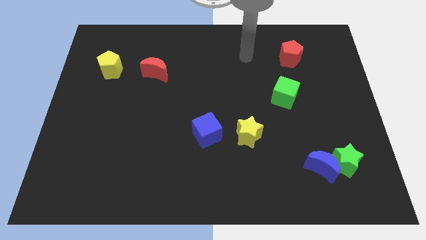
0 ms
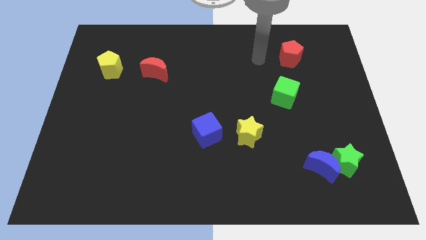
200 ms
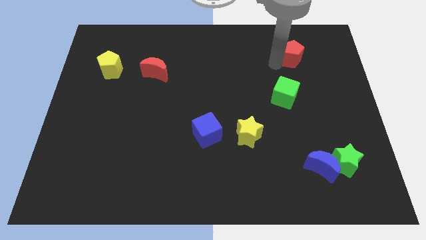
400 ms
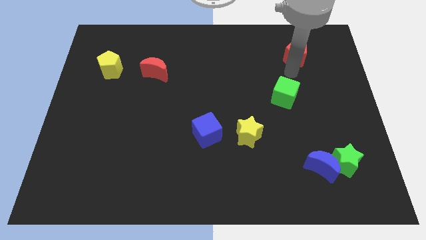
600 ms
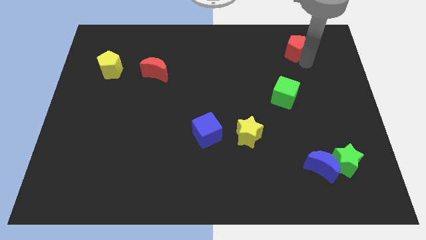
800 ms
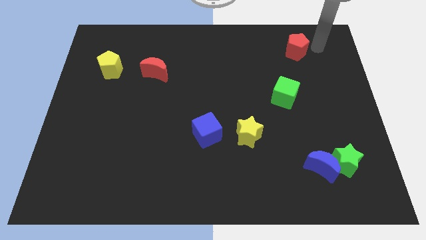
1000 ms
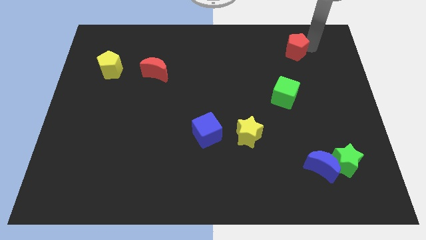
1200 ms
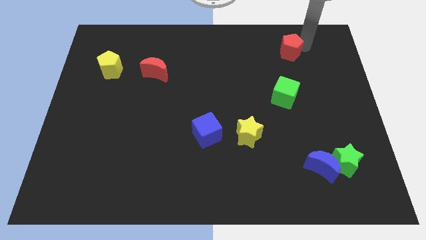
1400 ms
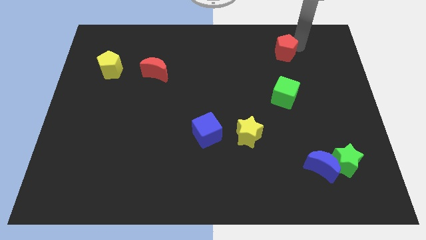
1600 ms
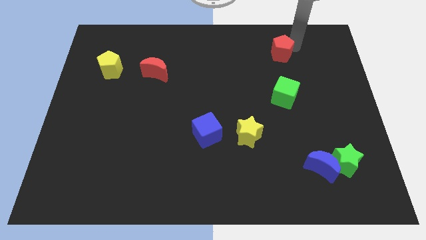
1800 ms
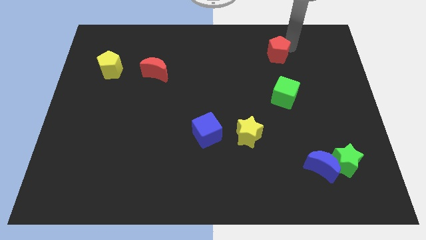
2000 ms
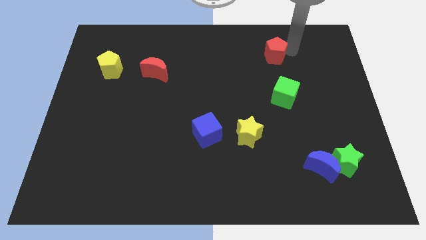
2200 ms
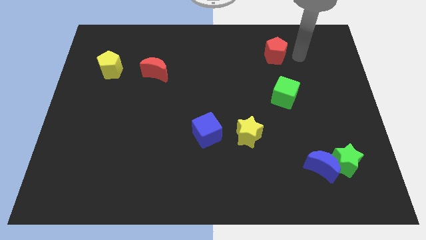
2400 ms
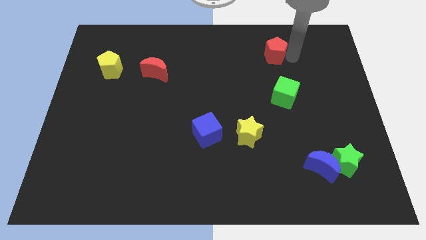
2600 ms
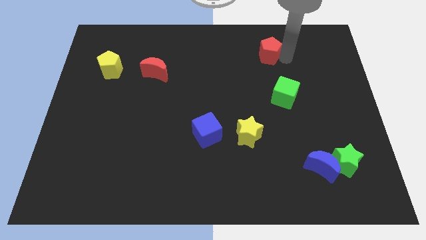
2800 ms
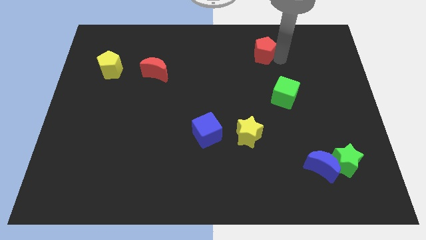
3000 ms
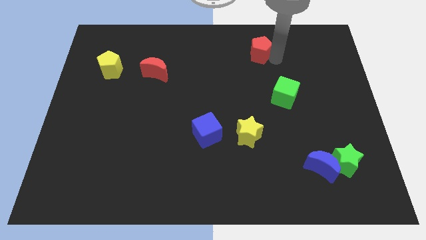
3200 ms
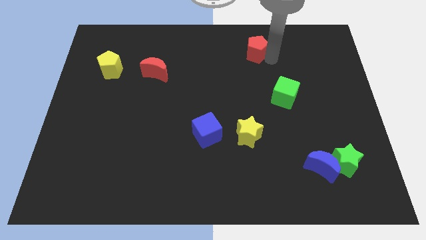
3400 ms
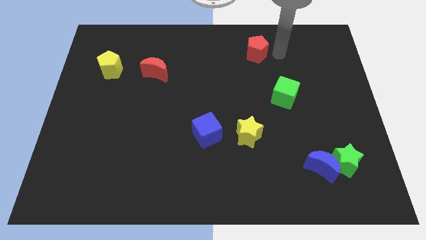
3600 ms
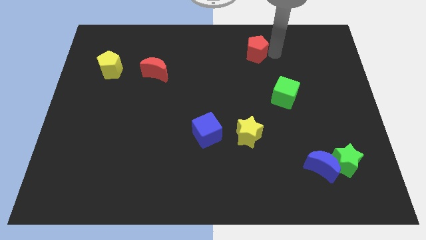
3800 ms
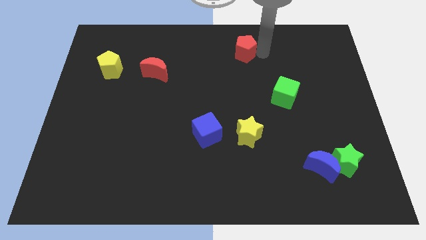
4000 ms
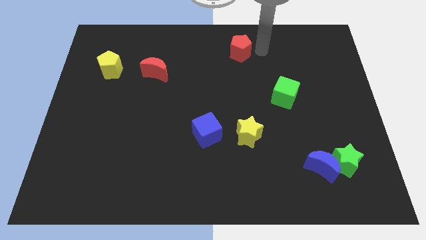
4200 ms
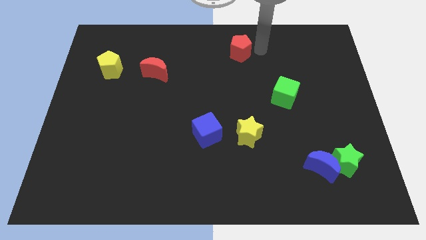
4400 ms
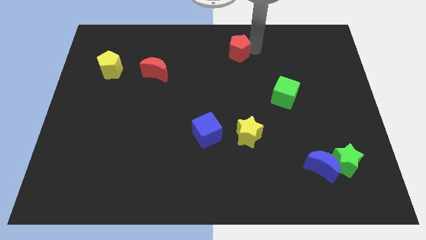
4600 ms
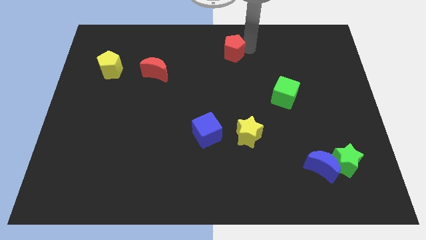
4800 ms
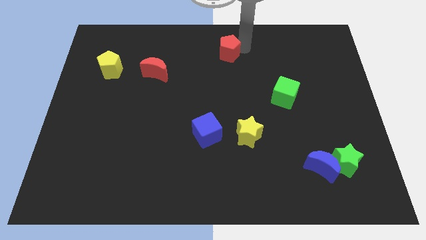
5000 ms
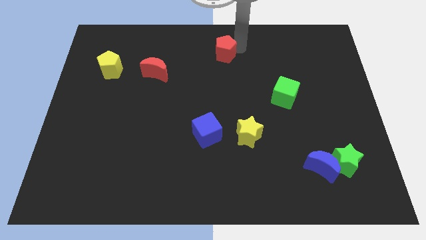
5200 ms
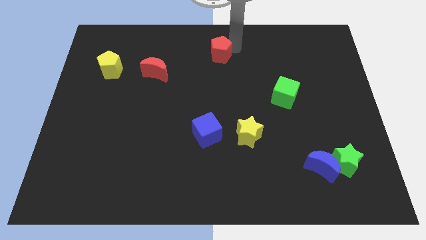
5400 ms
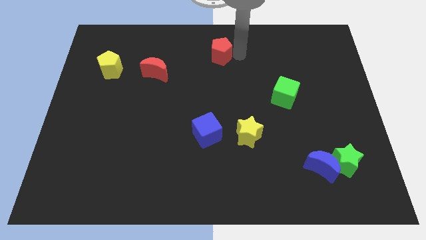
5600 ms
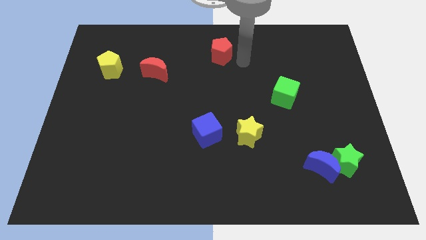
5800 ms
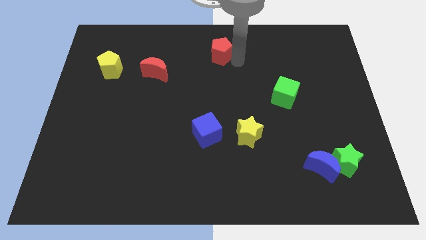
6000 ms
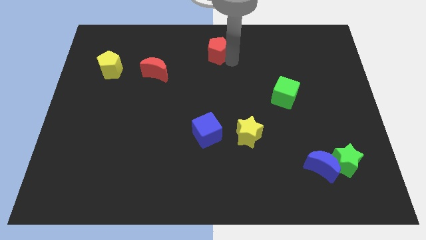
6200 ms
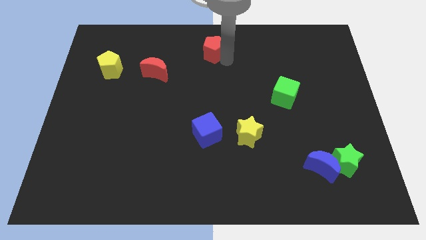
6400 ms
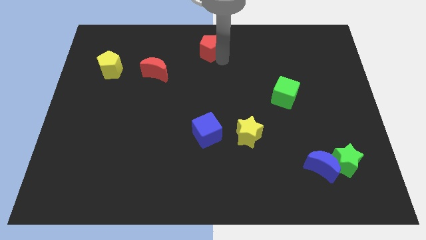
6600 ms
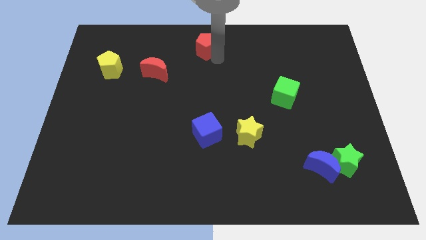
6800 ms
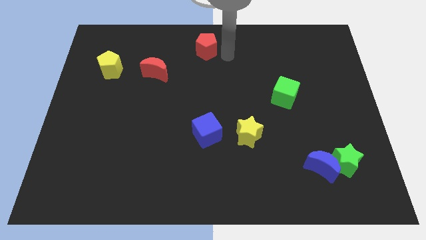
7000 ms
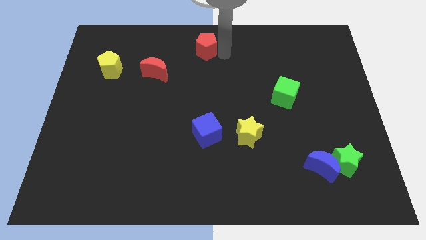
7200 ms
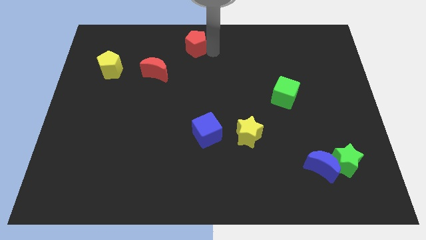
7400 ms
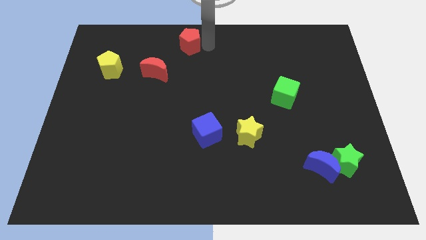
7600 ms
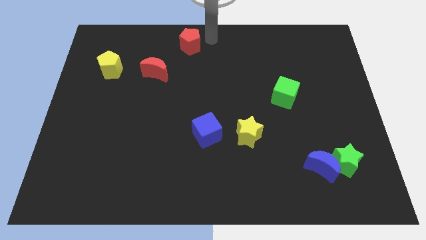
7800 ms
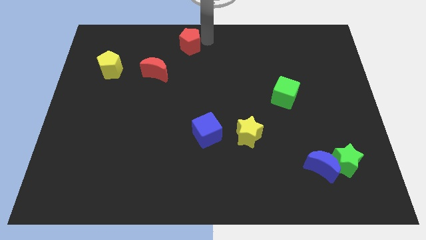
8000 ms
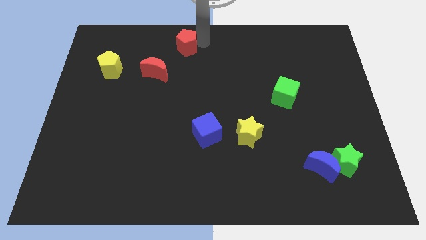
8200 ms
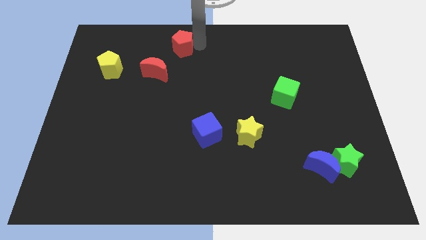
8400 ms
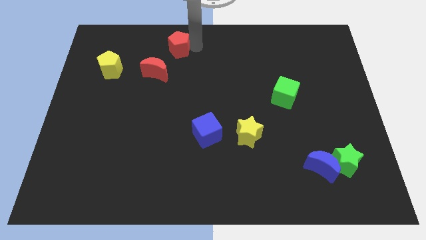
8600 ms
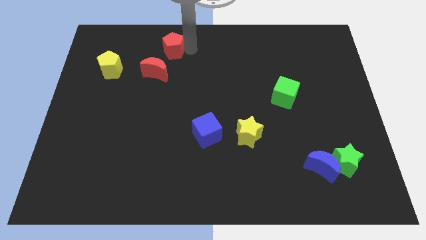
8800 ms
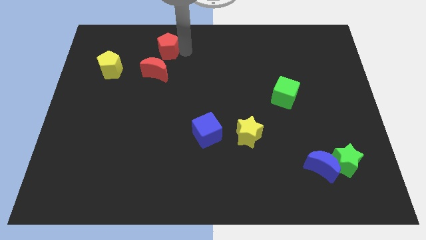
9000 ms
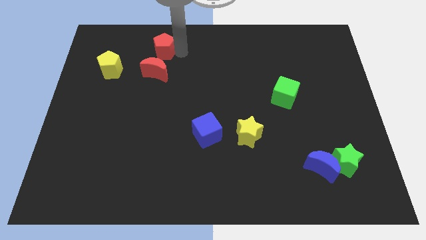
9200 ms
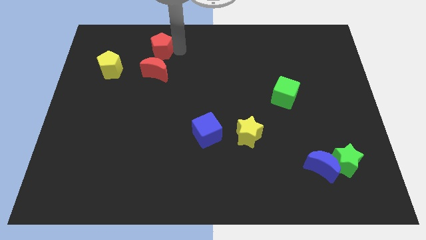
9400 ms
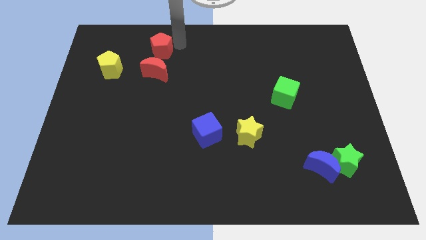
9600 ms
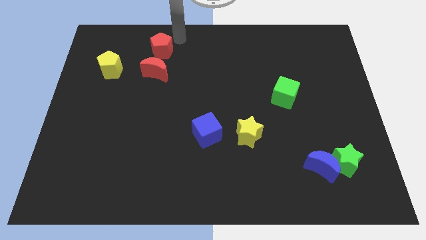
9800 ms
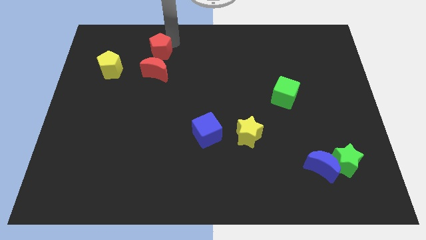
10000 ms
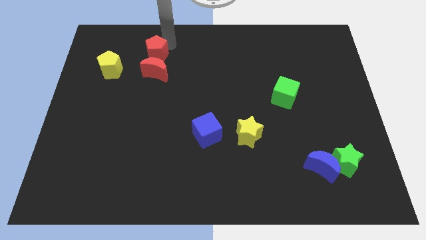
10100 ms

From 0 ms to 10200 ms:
put the red pentagon to the top left side of the red moon

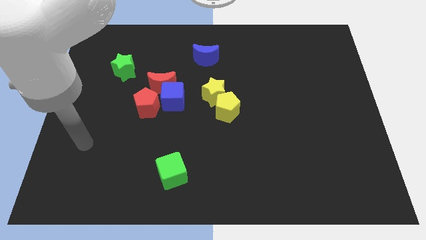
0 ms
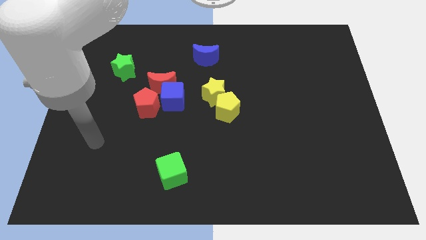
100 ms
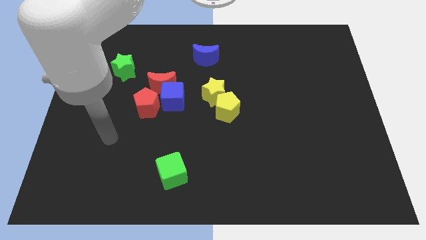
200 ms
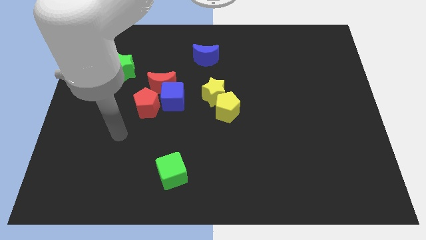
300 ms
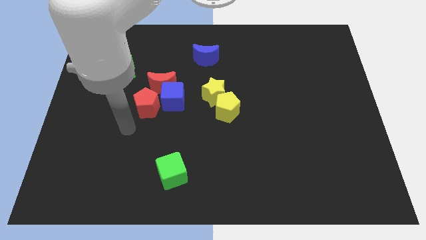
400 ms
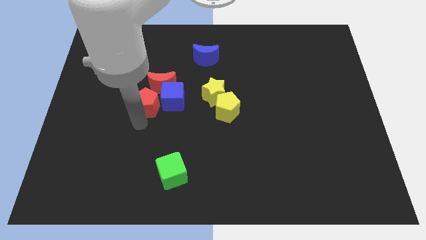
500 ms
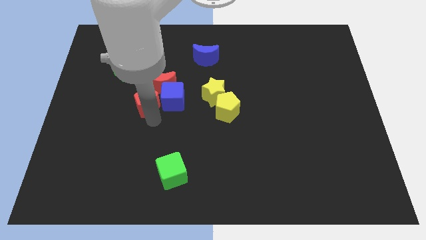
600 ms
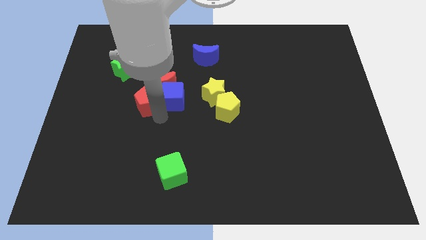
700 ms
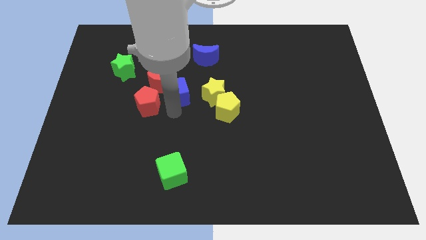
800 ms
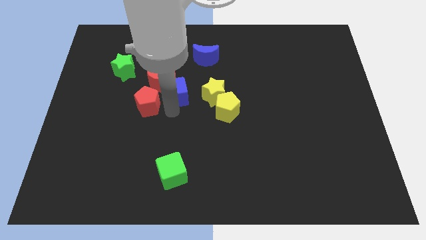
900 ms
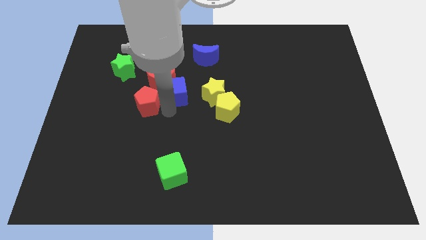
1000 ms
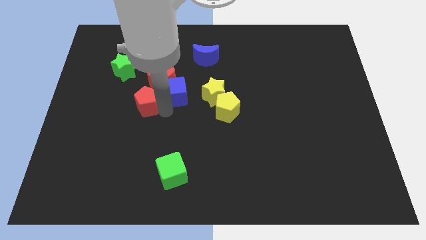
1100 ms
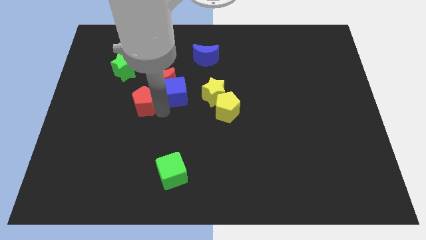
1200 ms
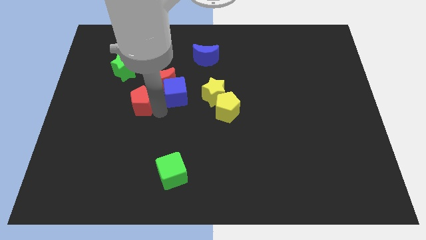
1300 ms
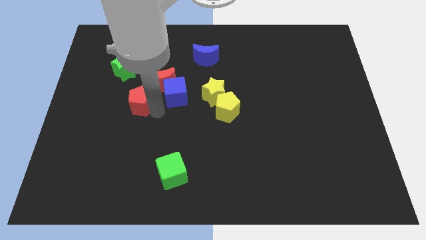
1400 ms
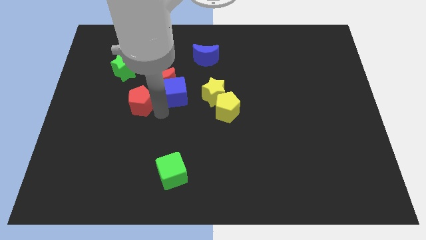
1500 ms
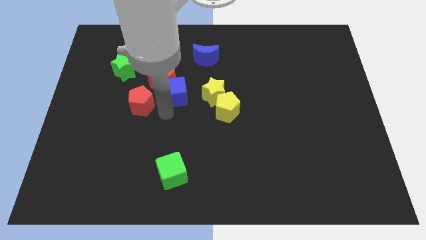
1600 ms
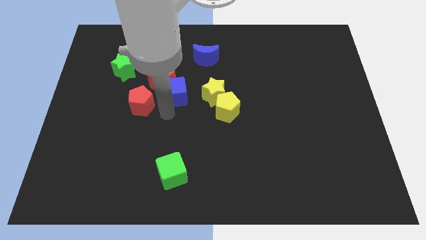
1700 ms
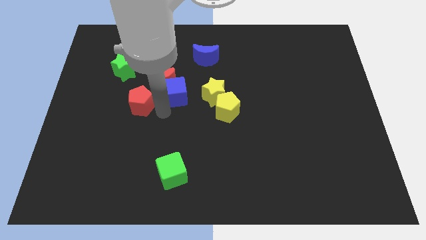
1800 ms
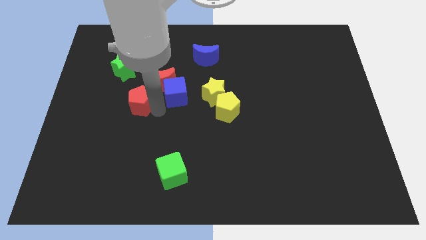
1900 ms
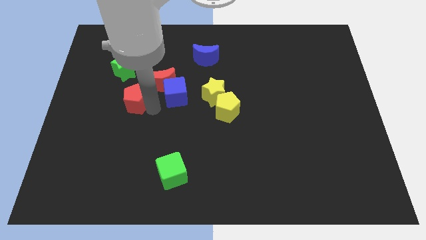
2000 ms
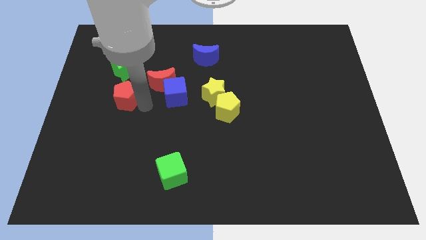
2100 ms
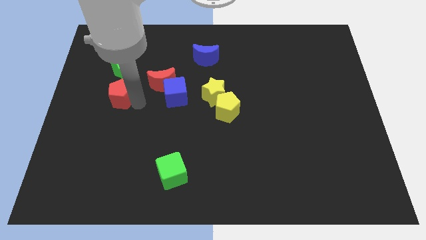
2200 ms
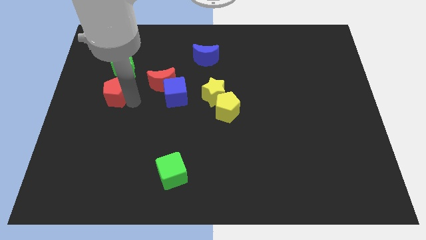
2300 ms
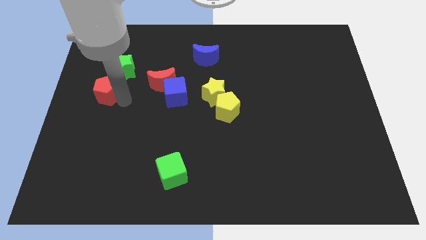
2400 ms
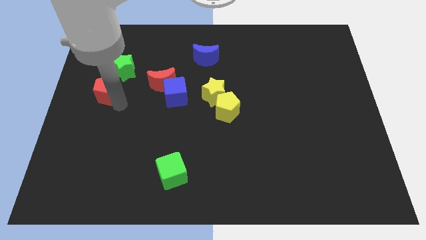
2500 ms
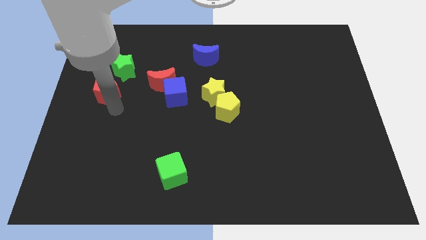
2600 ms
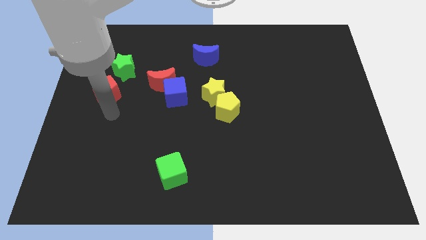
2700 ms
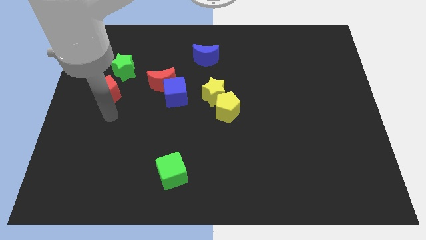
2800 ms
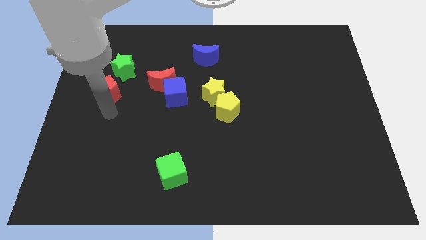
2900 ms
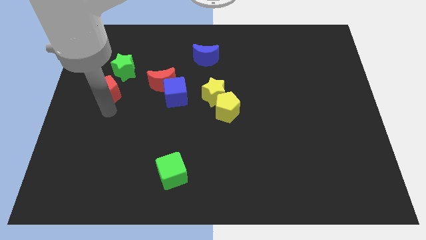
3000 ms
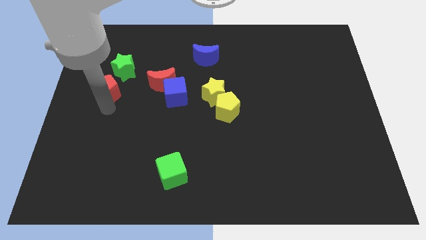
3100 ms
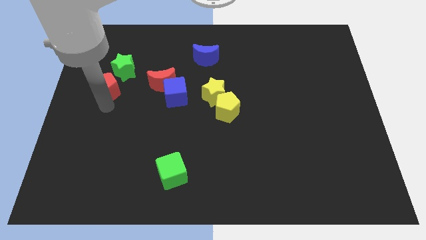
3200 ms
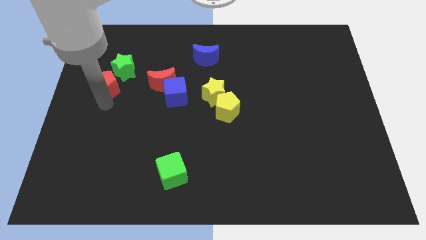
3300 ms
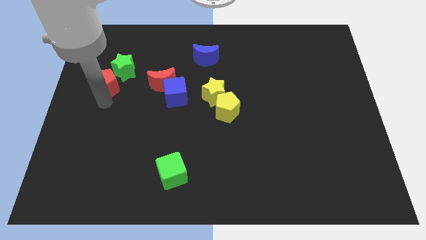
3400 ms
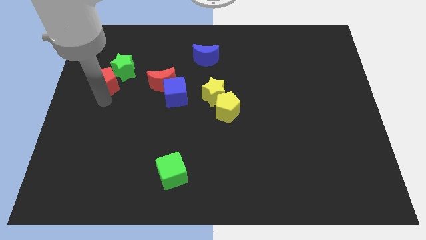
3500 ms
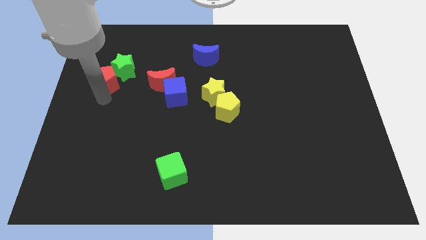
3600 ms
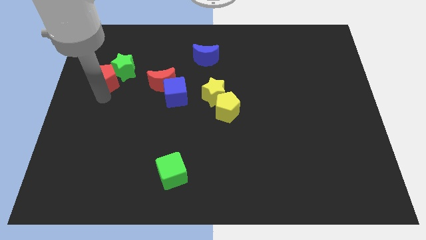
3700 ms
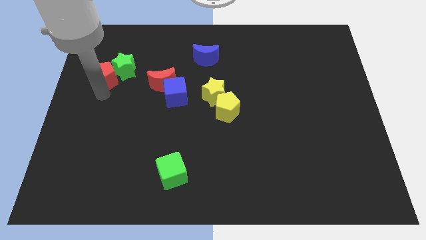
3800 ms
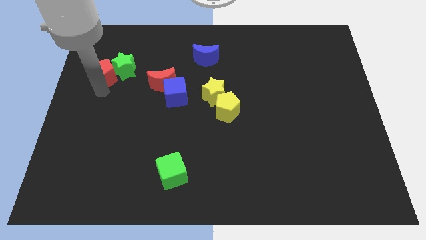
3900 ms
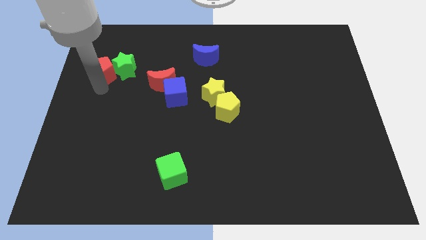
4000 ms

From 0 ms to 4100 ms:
put the red pentagon to the top left side of the green star
